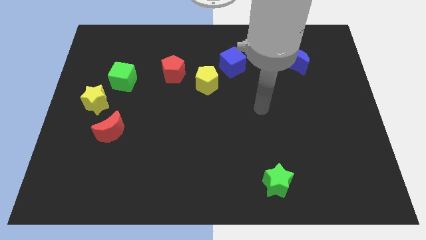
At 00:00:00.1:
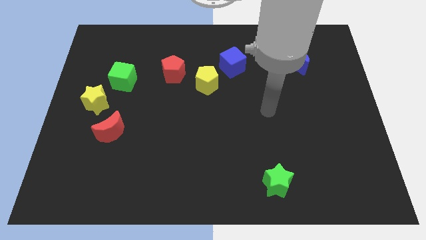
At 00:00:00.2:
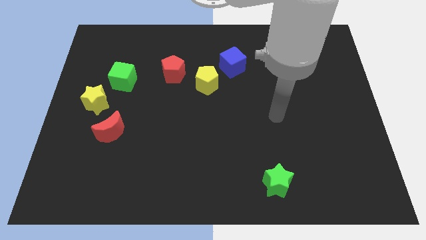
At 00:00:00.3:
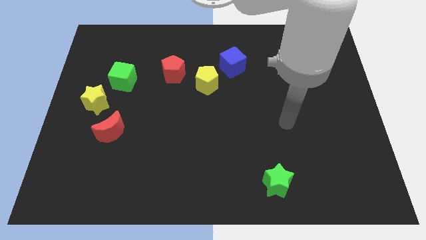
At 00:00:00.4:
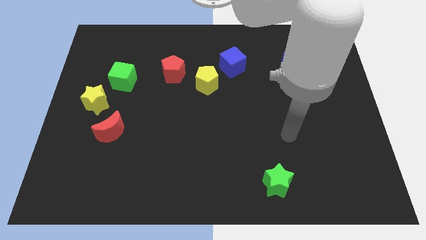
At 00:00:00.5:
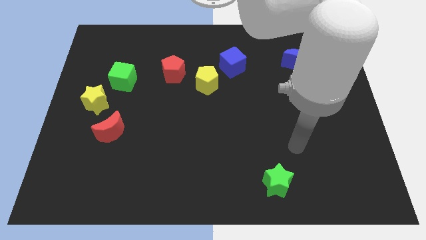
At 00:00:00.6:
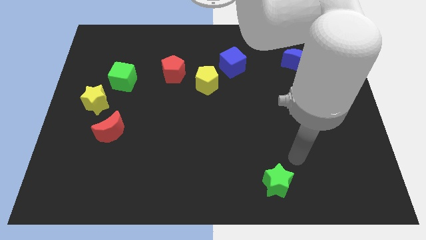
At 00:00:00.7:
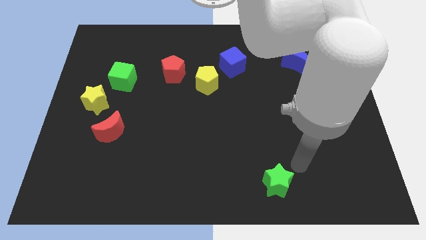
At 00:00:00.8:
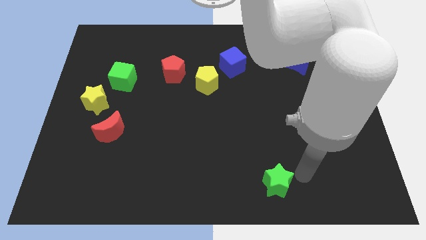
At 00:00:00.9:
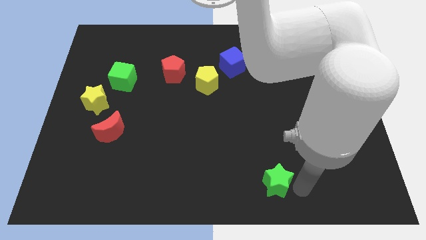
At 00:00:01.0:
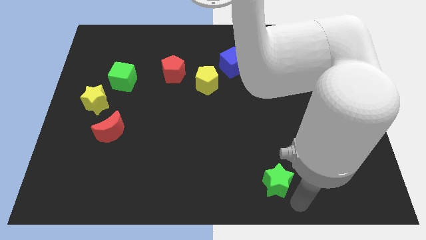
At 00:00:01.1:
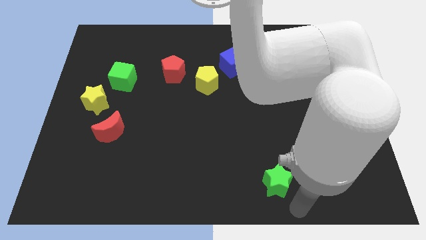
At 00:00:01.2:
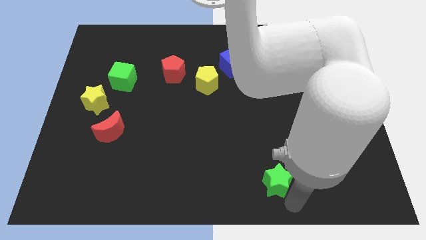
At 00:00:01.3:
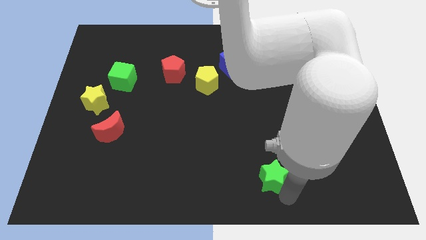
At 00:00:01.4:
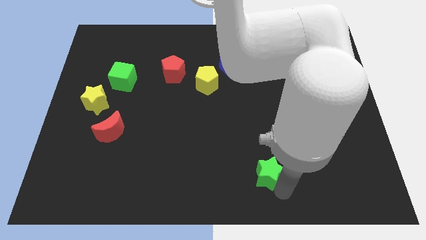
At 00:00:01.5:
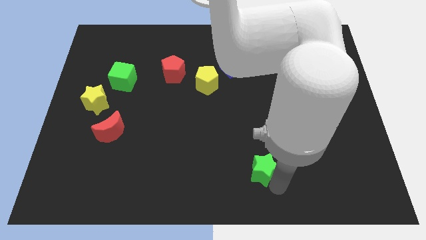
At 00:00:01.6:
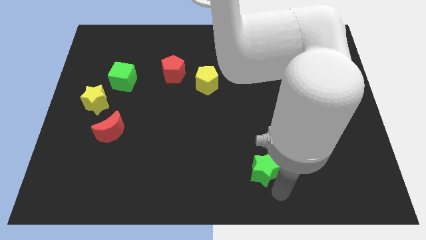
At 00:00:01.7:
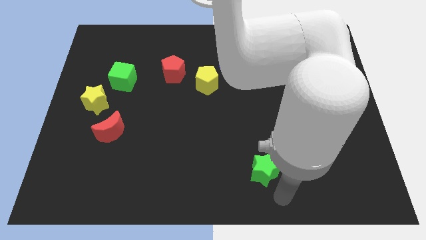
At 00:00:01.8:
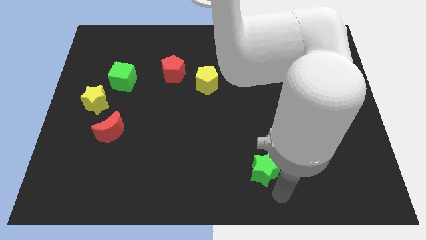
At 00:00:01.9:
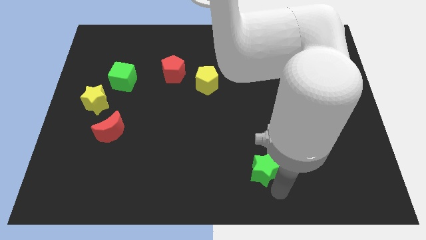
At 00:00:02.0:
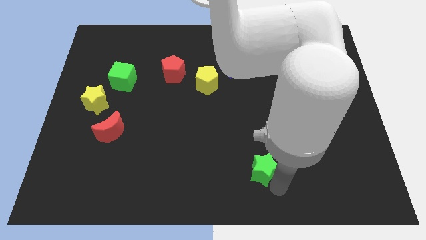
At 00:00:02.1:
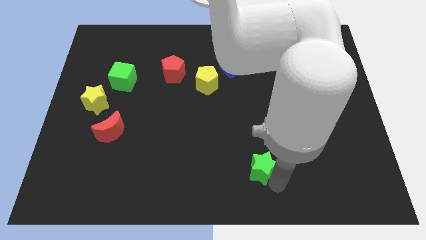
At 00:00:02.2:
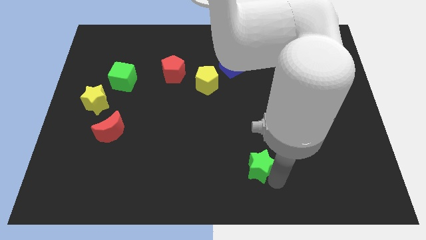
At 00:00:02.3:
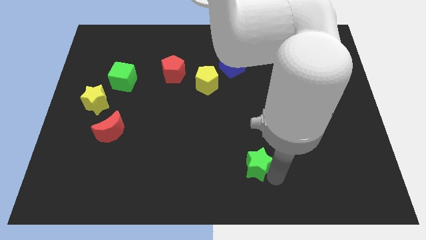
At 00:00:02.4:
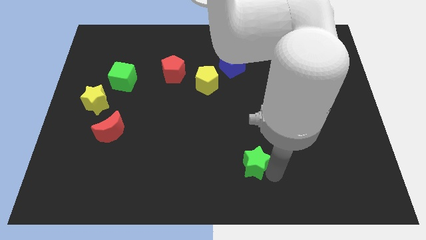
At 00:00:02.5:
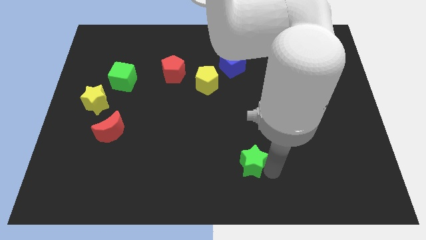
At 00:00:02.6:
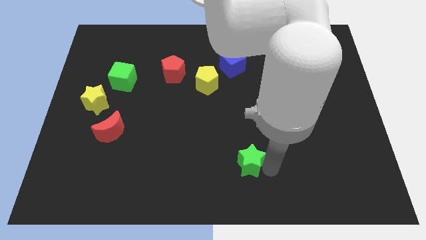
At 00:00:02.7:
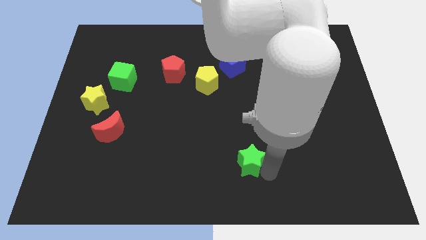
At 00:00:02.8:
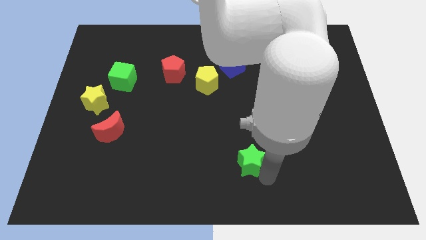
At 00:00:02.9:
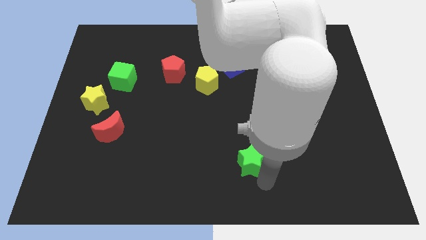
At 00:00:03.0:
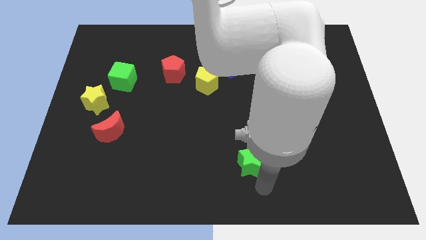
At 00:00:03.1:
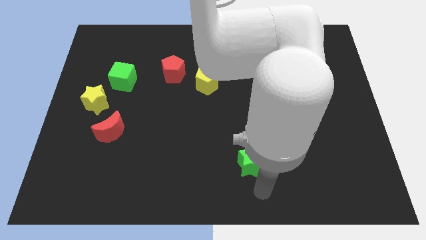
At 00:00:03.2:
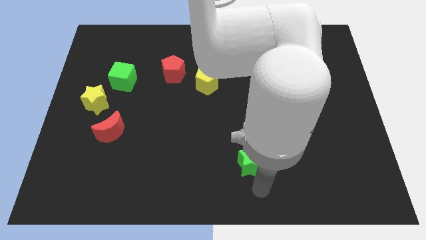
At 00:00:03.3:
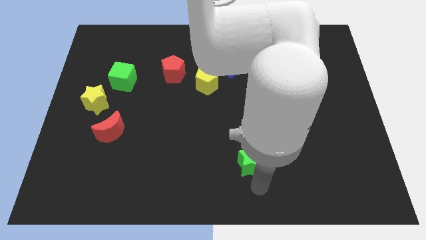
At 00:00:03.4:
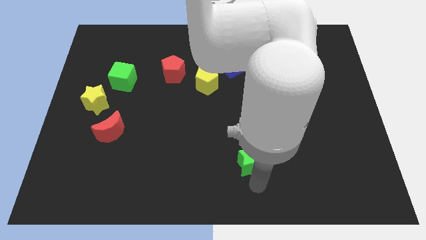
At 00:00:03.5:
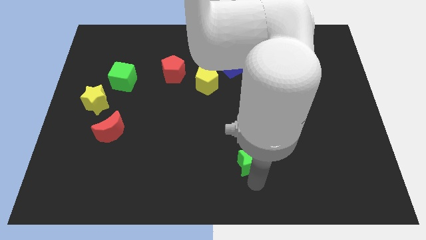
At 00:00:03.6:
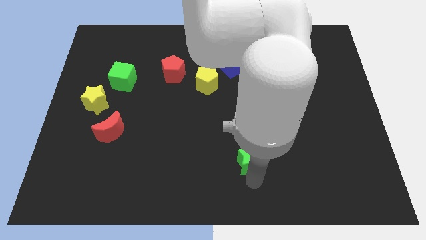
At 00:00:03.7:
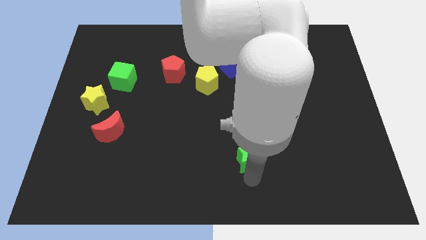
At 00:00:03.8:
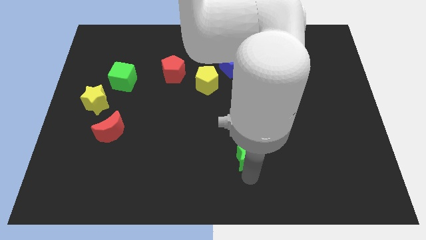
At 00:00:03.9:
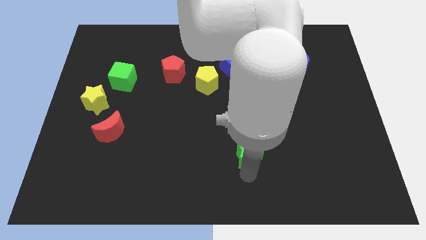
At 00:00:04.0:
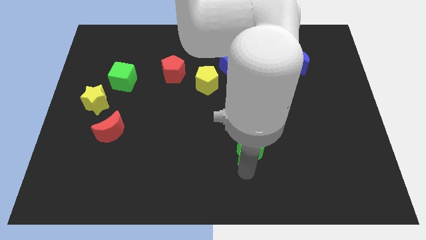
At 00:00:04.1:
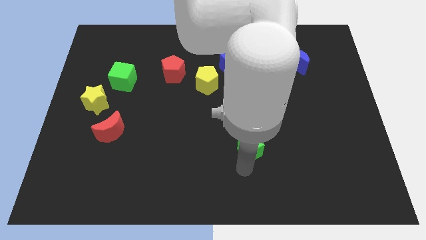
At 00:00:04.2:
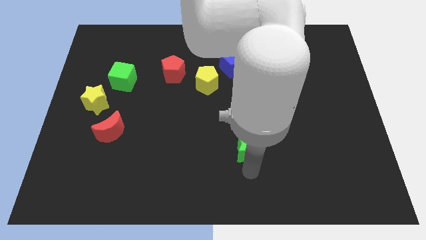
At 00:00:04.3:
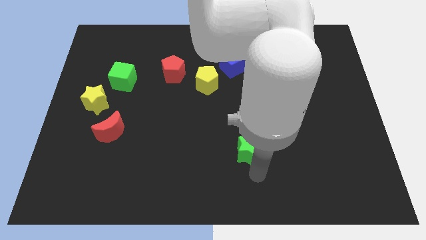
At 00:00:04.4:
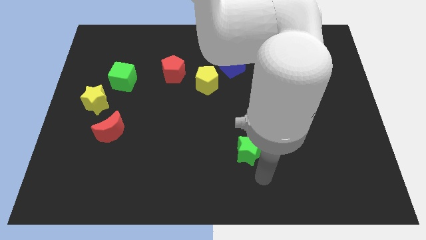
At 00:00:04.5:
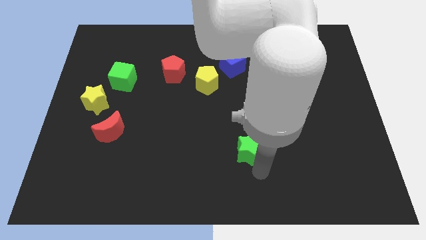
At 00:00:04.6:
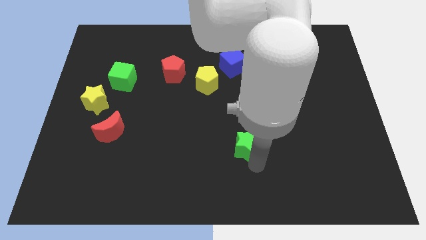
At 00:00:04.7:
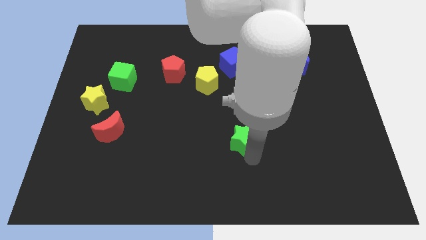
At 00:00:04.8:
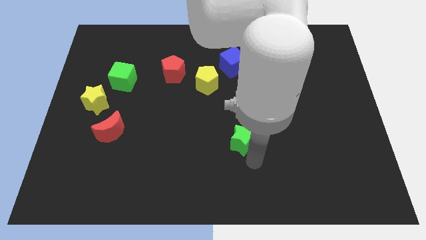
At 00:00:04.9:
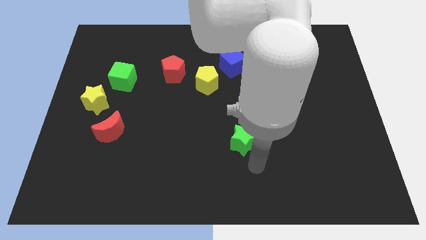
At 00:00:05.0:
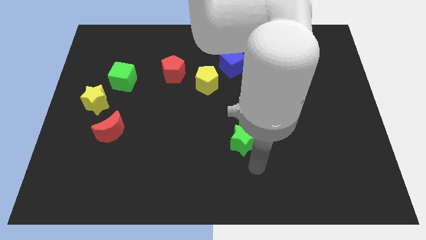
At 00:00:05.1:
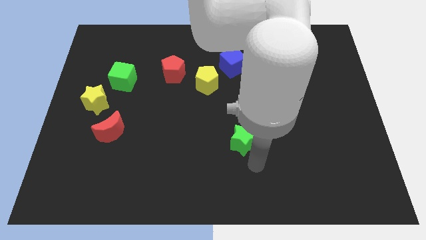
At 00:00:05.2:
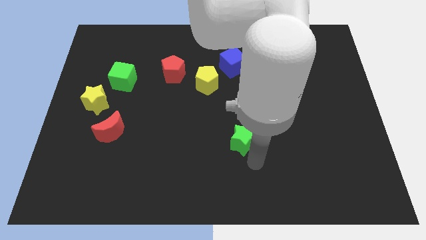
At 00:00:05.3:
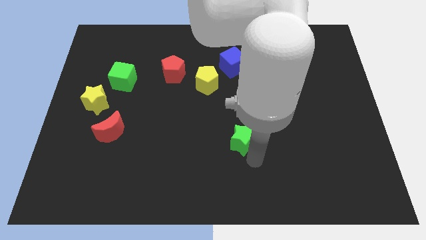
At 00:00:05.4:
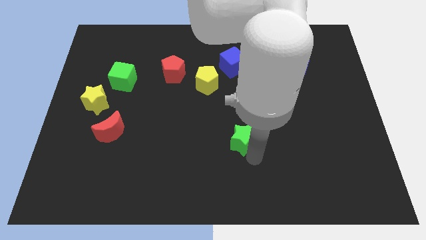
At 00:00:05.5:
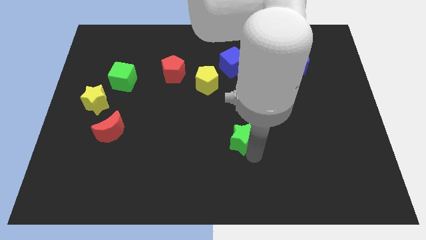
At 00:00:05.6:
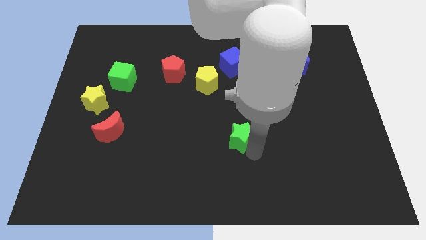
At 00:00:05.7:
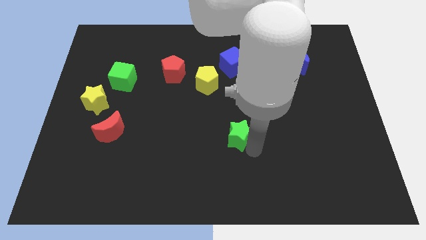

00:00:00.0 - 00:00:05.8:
push the green star to the middle of the board

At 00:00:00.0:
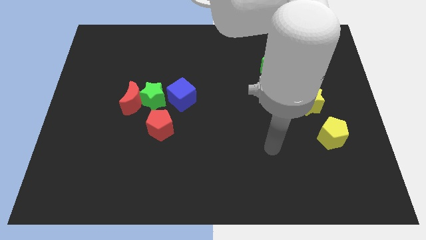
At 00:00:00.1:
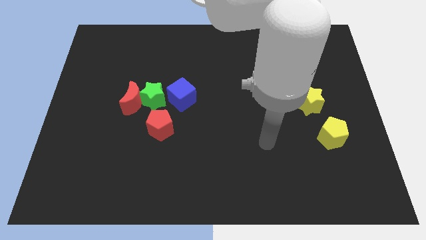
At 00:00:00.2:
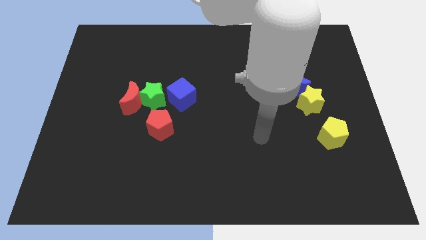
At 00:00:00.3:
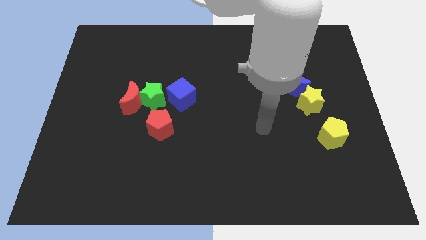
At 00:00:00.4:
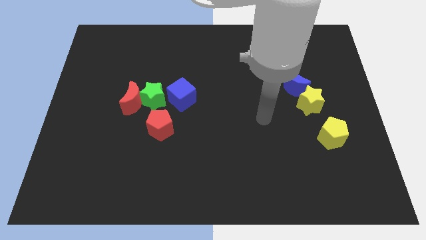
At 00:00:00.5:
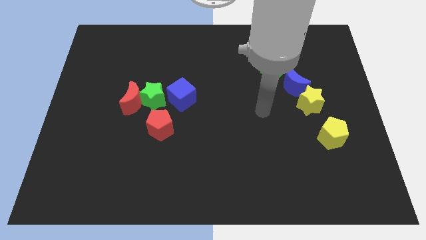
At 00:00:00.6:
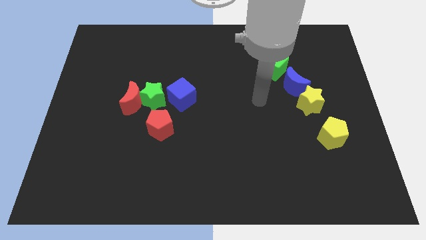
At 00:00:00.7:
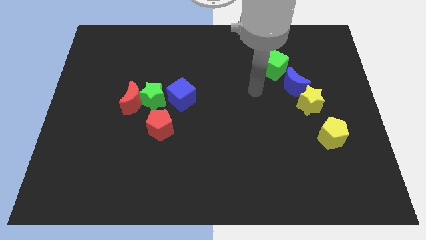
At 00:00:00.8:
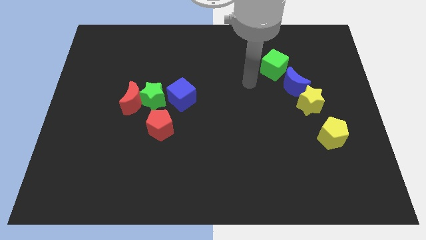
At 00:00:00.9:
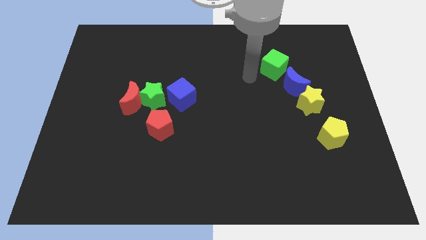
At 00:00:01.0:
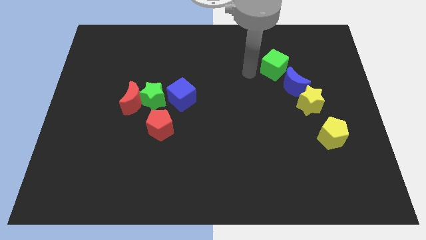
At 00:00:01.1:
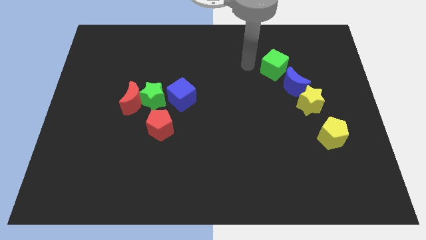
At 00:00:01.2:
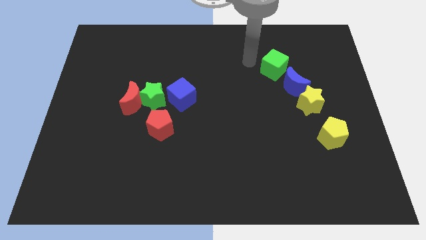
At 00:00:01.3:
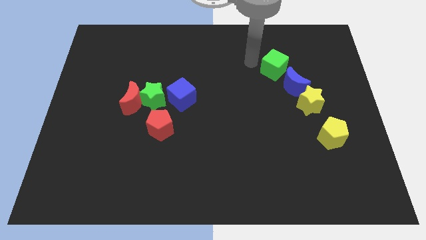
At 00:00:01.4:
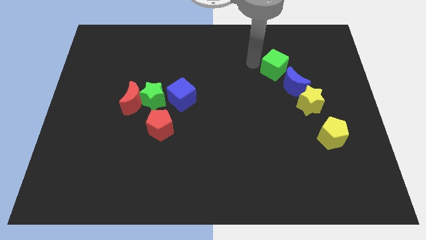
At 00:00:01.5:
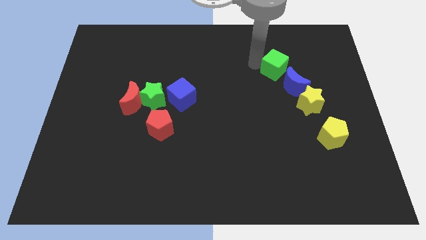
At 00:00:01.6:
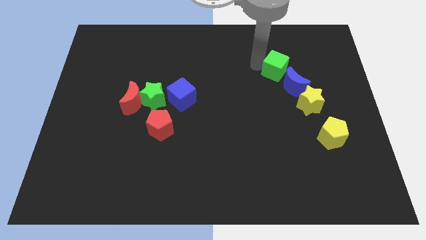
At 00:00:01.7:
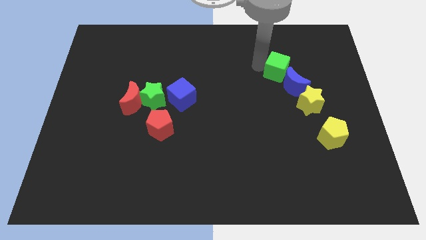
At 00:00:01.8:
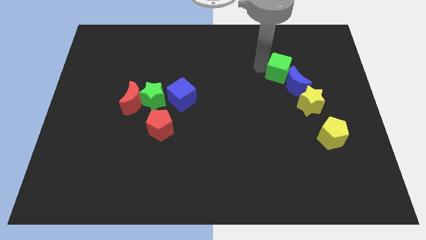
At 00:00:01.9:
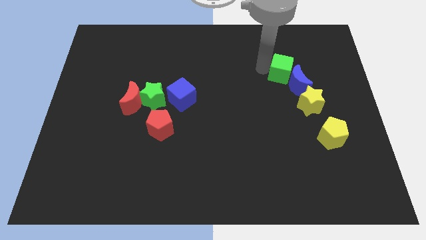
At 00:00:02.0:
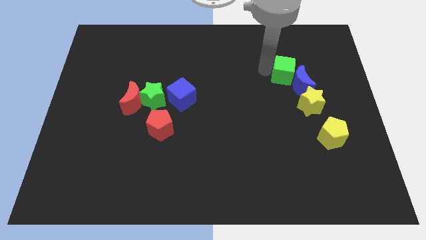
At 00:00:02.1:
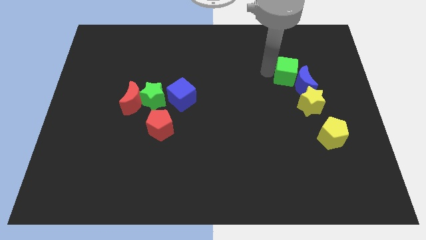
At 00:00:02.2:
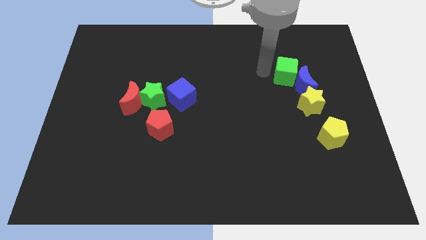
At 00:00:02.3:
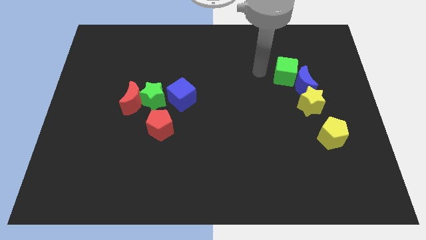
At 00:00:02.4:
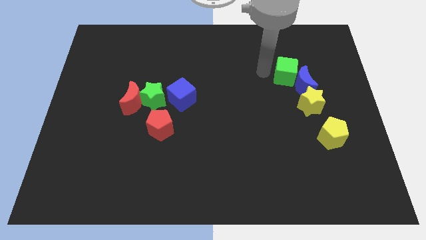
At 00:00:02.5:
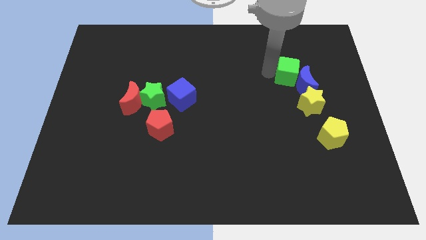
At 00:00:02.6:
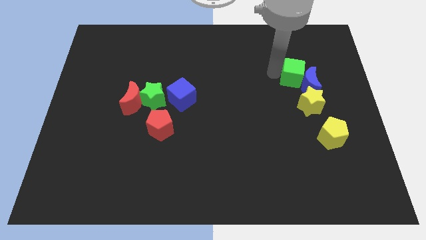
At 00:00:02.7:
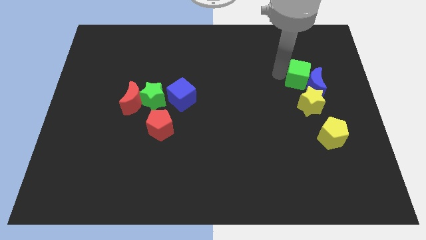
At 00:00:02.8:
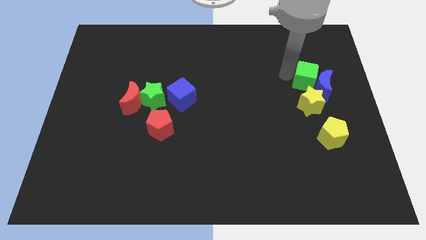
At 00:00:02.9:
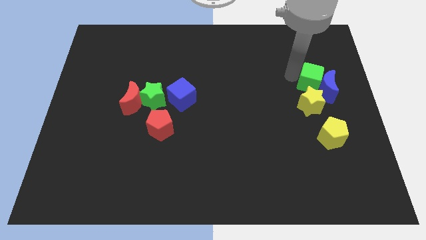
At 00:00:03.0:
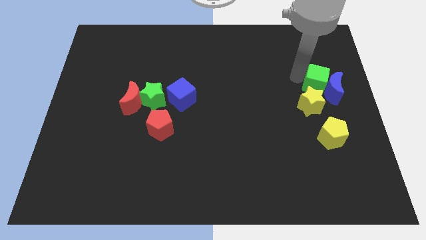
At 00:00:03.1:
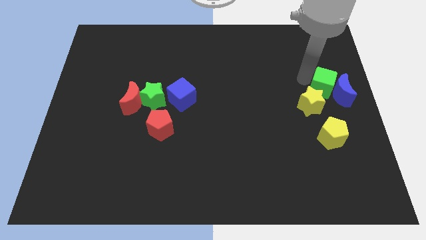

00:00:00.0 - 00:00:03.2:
push the green cube to the right side of the board
